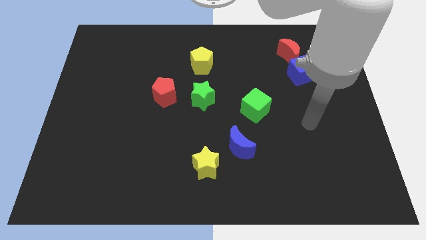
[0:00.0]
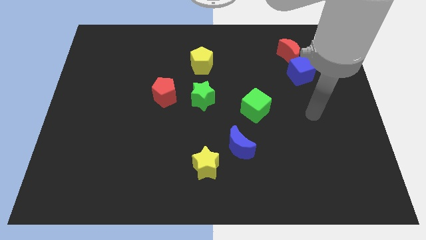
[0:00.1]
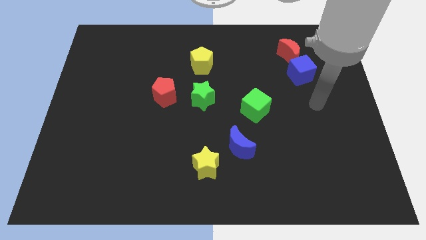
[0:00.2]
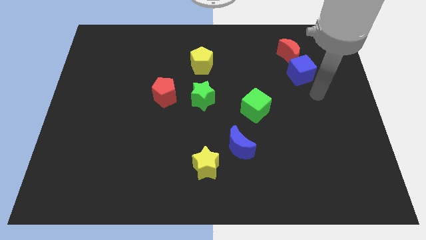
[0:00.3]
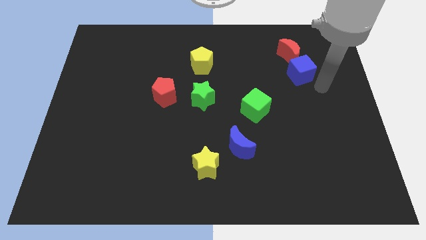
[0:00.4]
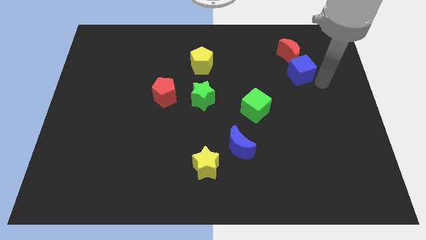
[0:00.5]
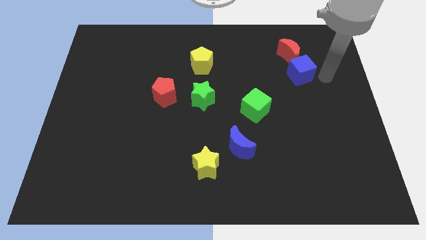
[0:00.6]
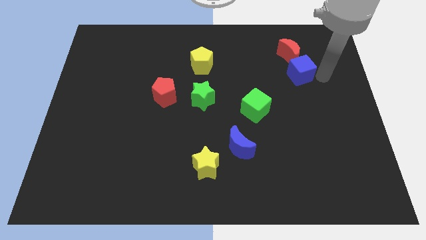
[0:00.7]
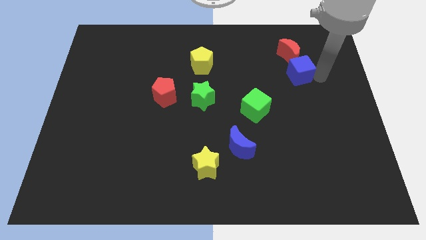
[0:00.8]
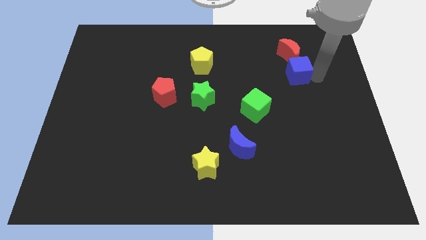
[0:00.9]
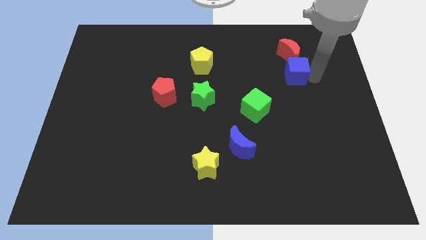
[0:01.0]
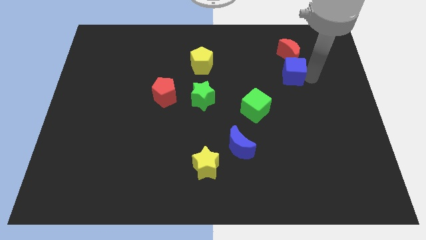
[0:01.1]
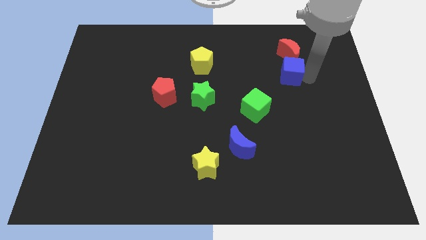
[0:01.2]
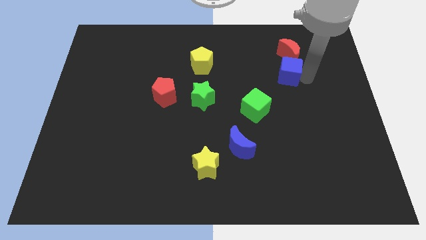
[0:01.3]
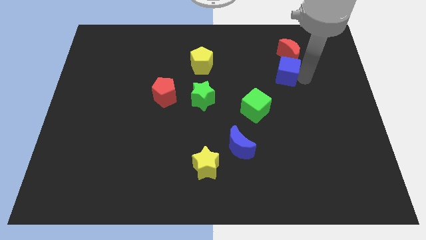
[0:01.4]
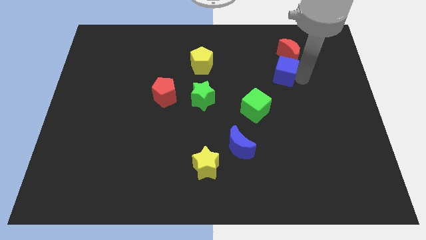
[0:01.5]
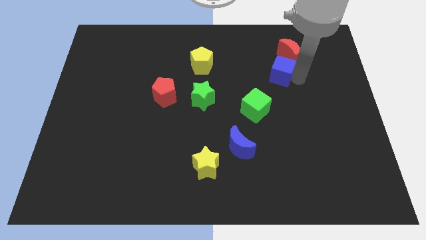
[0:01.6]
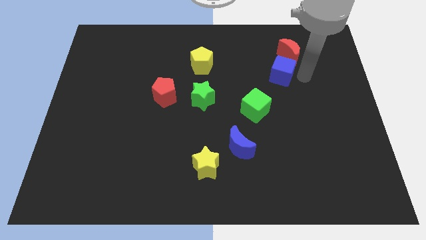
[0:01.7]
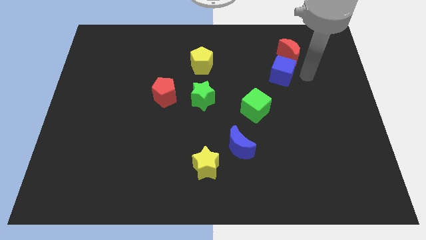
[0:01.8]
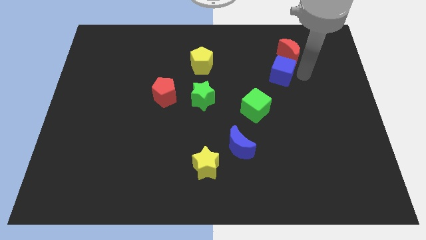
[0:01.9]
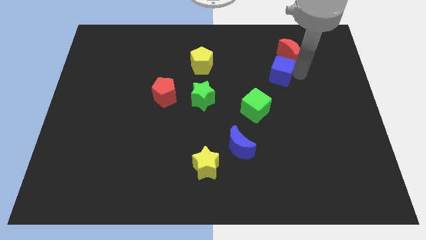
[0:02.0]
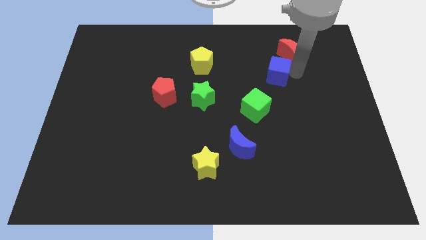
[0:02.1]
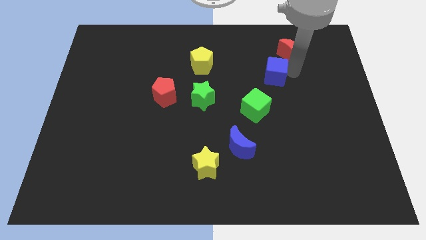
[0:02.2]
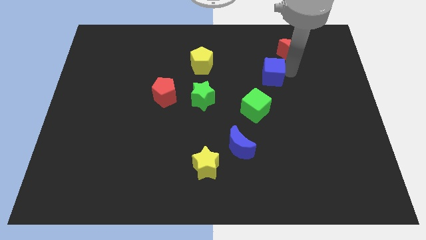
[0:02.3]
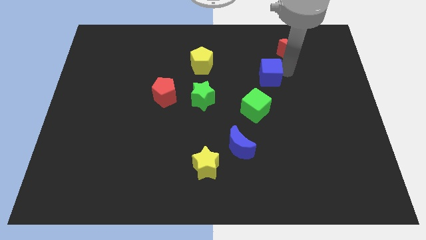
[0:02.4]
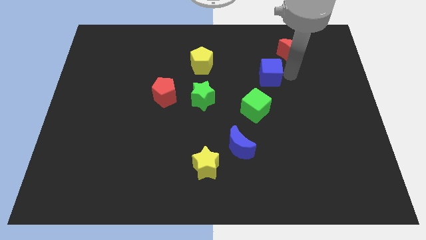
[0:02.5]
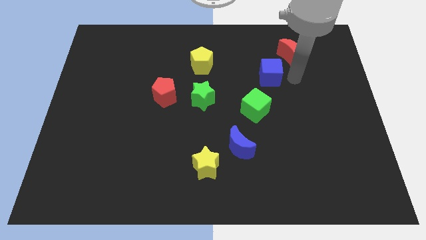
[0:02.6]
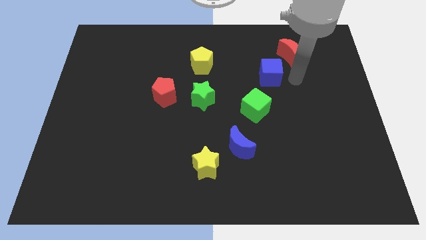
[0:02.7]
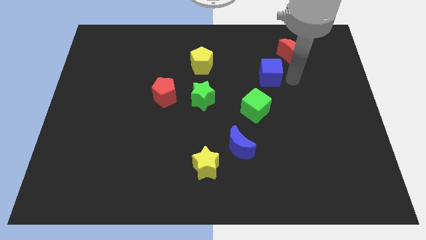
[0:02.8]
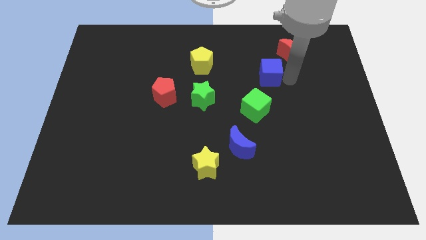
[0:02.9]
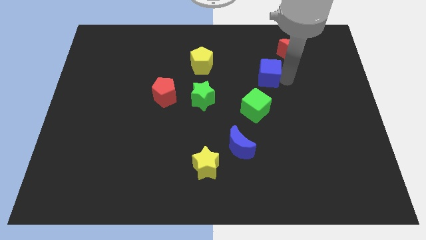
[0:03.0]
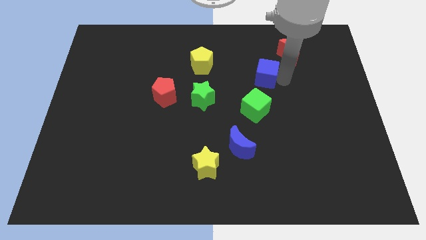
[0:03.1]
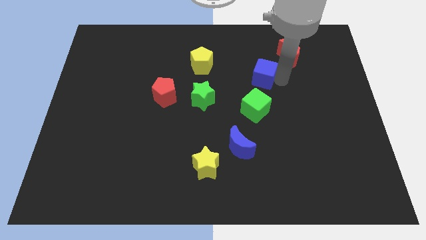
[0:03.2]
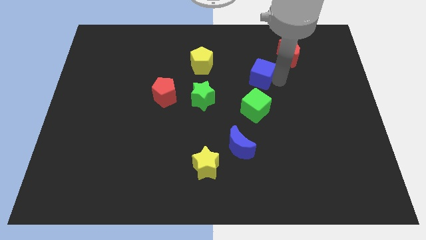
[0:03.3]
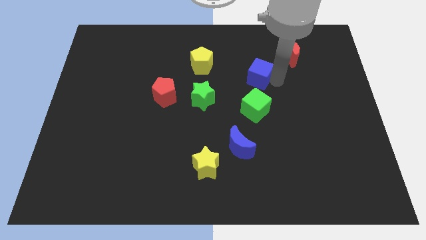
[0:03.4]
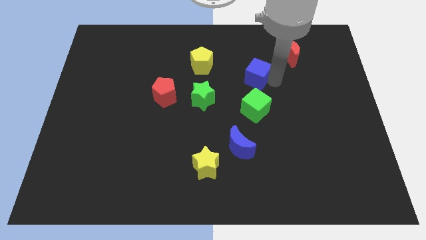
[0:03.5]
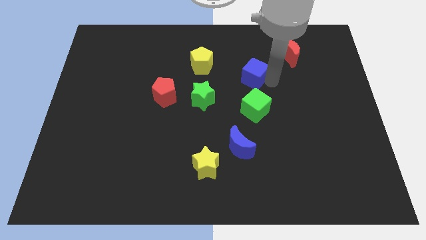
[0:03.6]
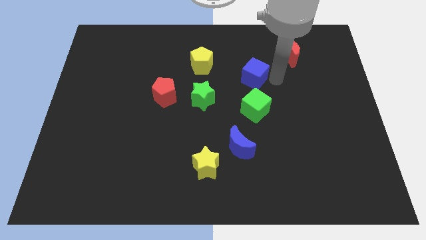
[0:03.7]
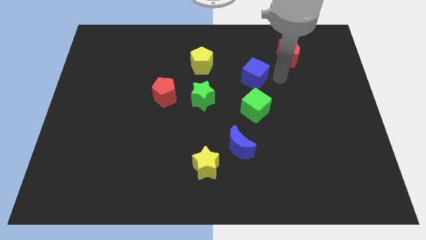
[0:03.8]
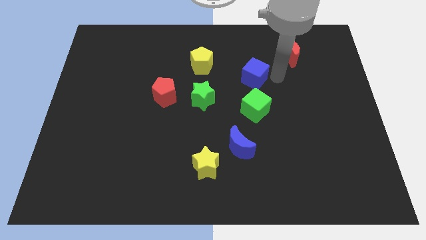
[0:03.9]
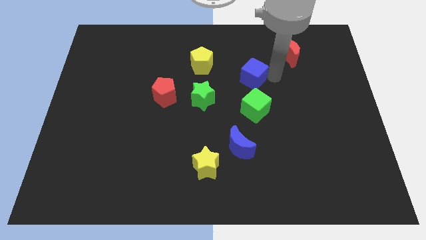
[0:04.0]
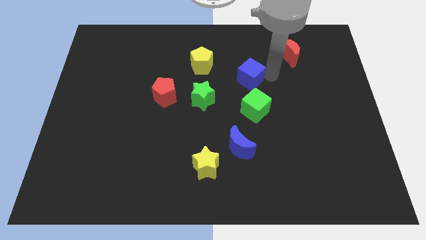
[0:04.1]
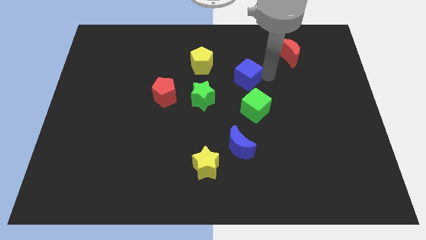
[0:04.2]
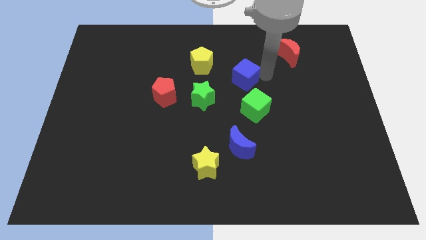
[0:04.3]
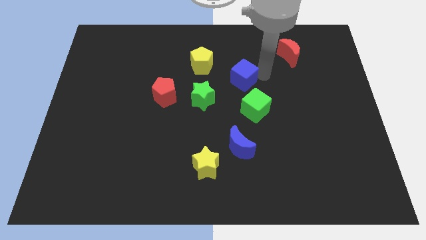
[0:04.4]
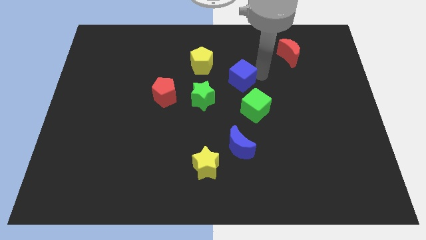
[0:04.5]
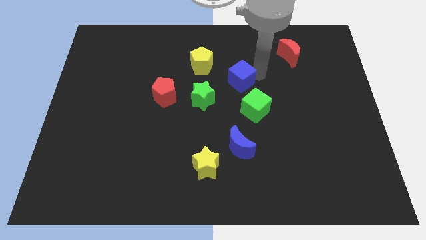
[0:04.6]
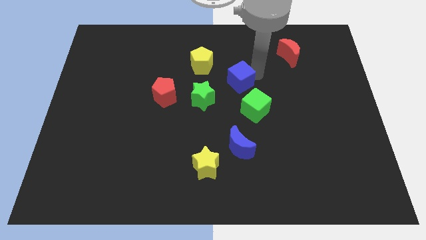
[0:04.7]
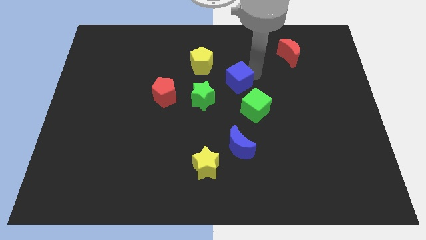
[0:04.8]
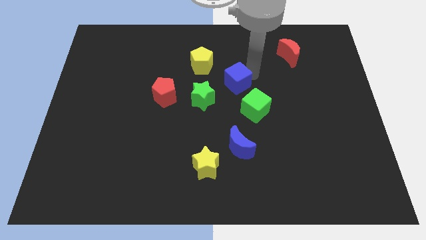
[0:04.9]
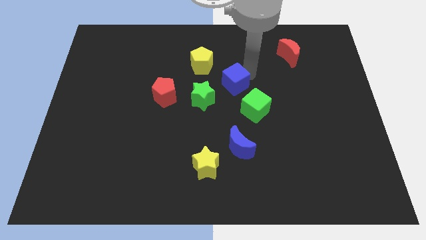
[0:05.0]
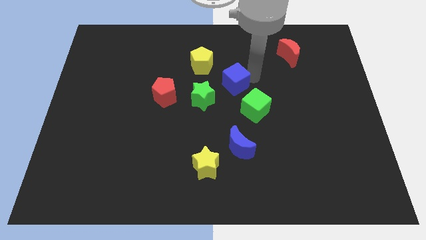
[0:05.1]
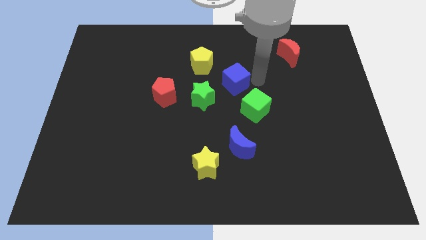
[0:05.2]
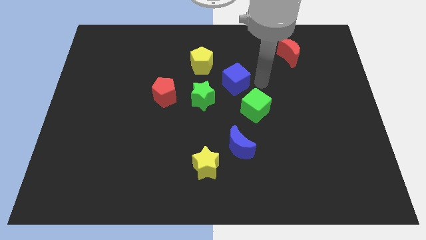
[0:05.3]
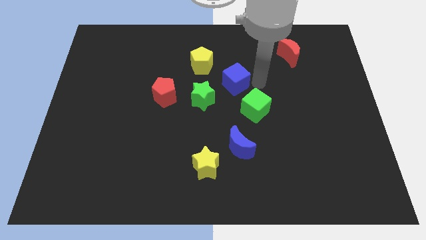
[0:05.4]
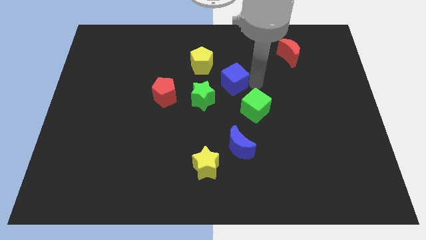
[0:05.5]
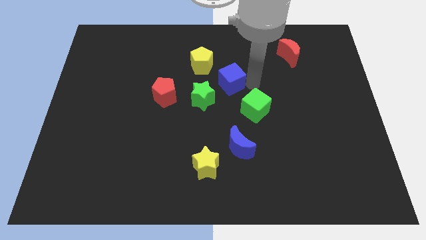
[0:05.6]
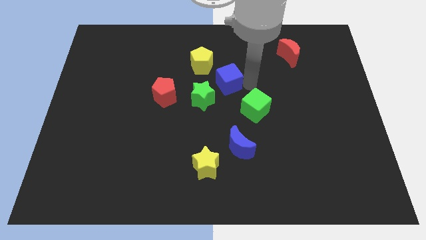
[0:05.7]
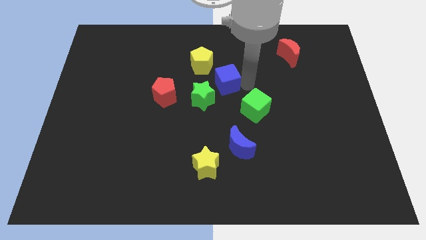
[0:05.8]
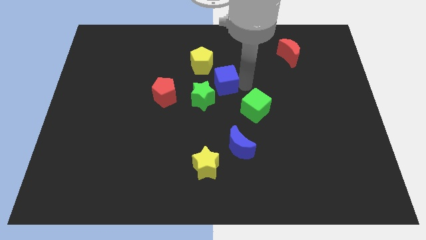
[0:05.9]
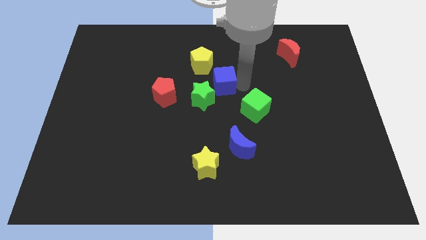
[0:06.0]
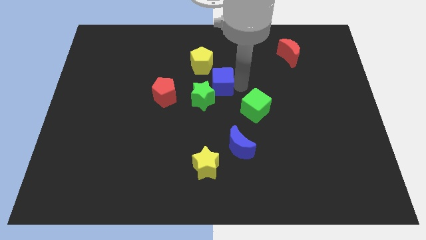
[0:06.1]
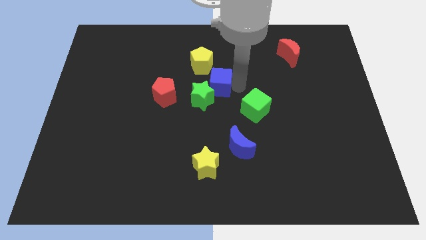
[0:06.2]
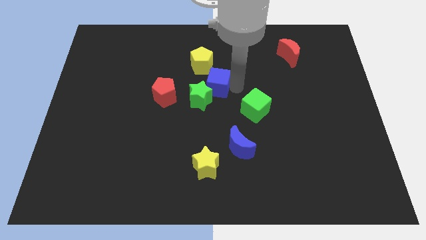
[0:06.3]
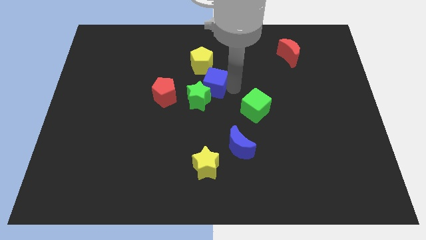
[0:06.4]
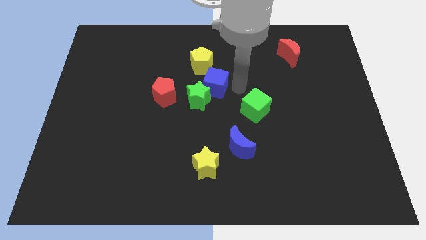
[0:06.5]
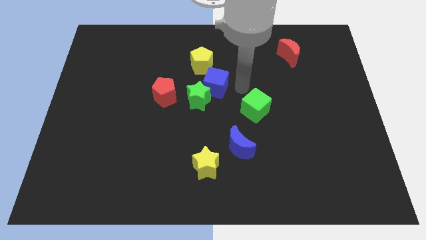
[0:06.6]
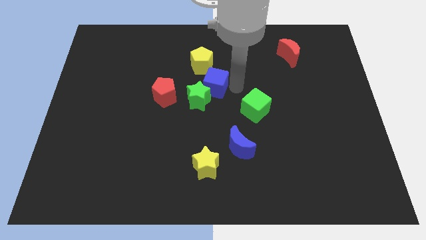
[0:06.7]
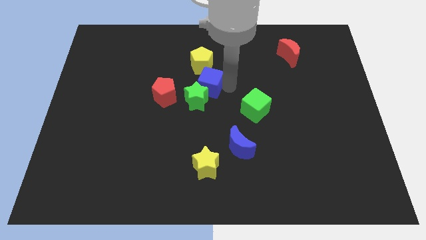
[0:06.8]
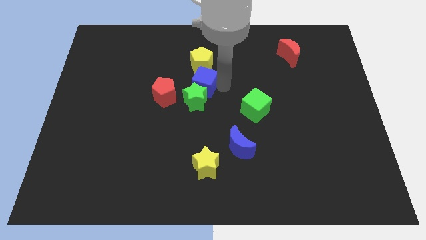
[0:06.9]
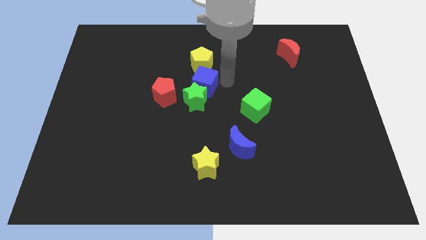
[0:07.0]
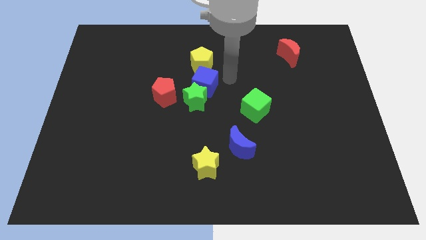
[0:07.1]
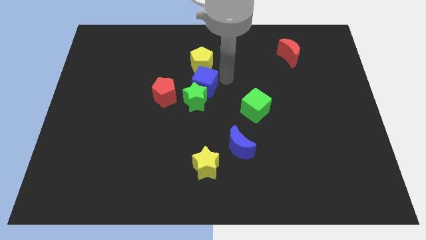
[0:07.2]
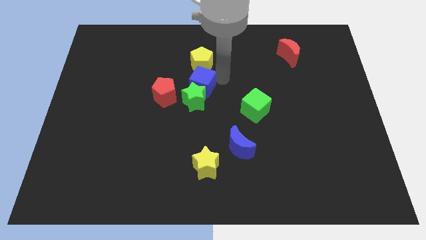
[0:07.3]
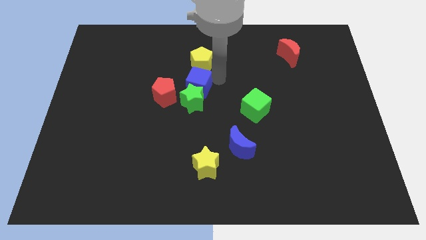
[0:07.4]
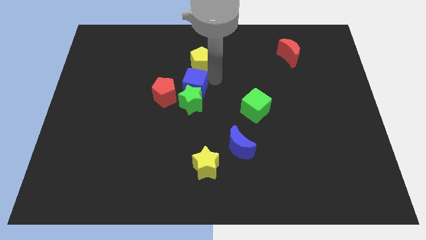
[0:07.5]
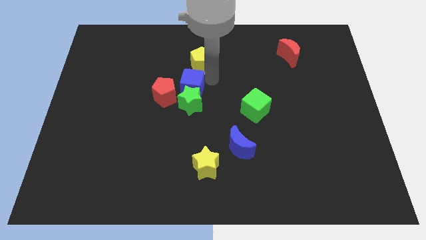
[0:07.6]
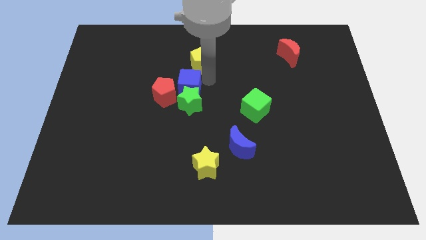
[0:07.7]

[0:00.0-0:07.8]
put the blue cube to the red pentagon
